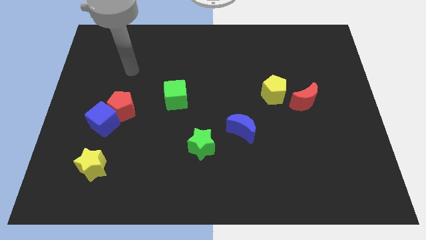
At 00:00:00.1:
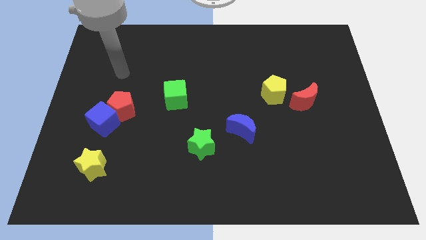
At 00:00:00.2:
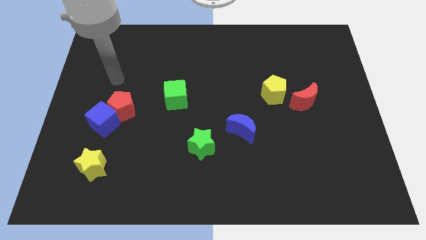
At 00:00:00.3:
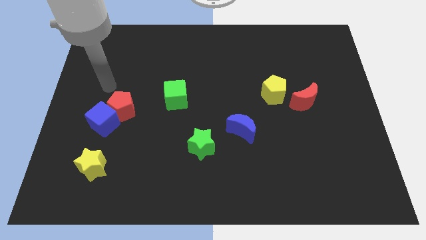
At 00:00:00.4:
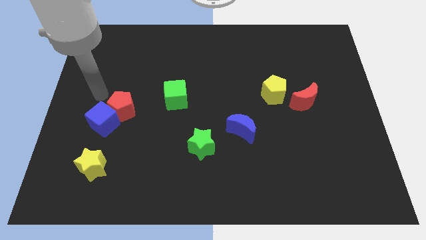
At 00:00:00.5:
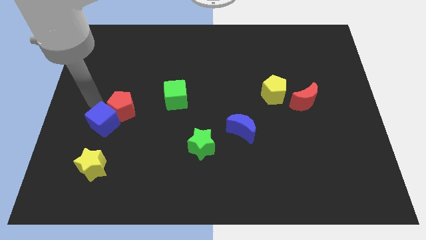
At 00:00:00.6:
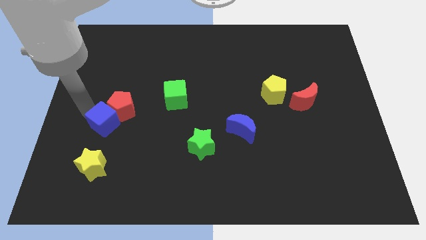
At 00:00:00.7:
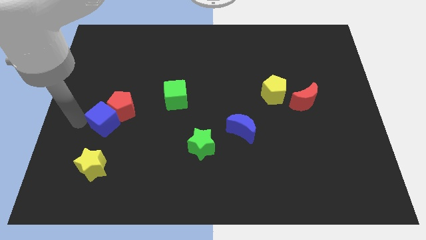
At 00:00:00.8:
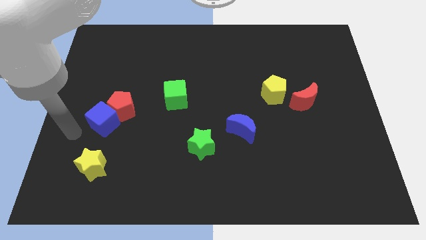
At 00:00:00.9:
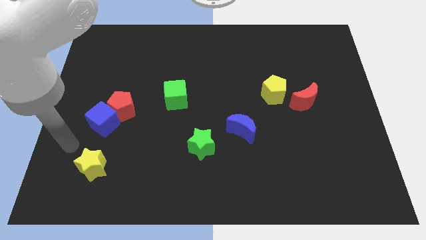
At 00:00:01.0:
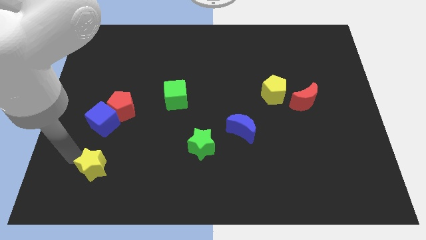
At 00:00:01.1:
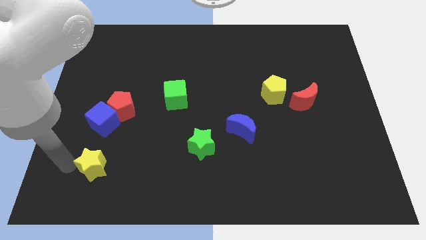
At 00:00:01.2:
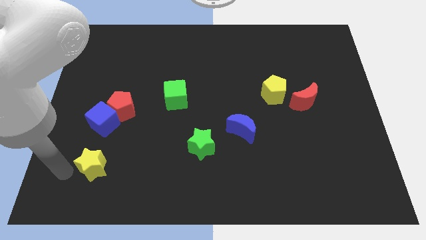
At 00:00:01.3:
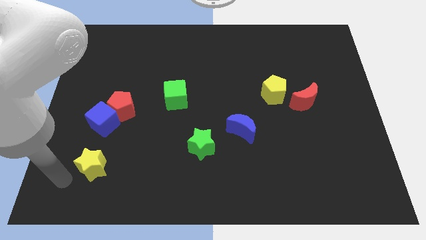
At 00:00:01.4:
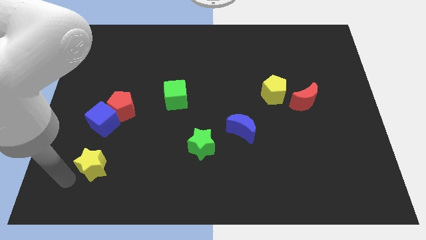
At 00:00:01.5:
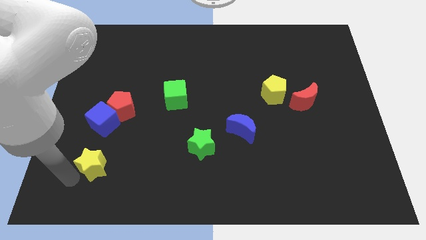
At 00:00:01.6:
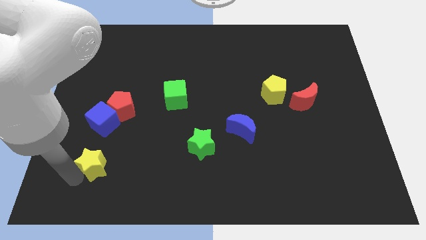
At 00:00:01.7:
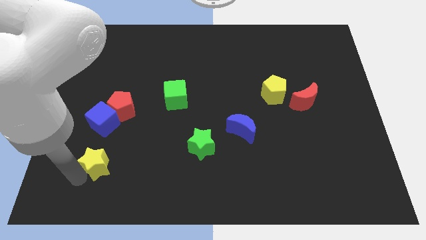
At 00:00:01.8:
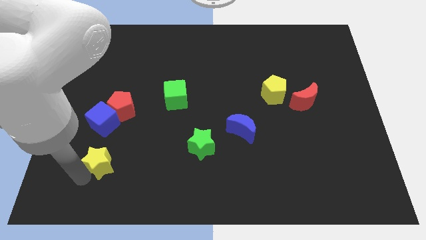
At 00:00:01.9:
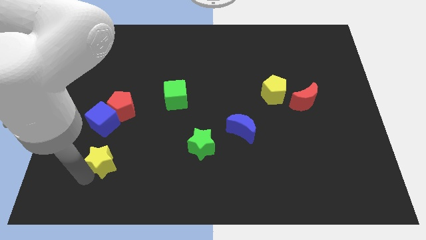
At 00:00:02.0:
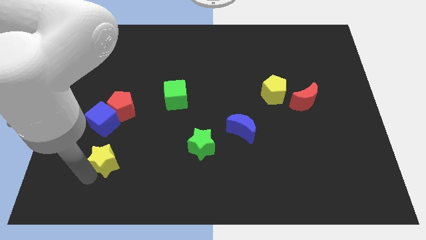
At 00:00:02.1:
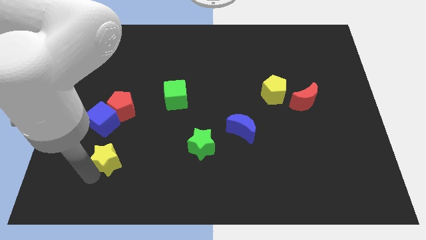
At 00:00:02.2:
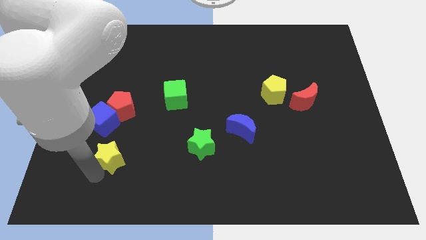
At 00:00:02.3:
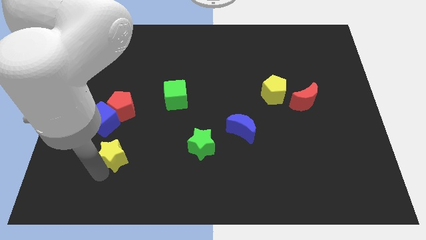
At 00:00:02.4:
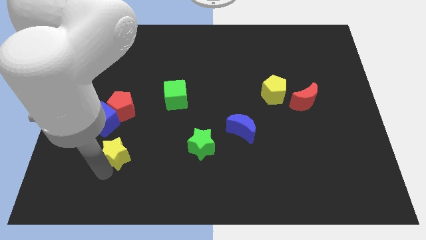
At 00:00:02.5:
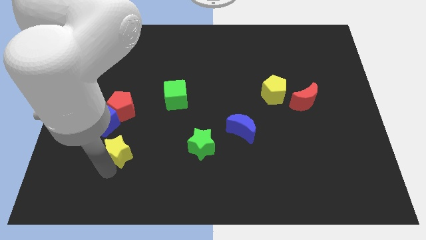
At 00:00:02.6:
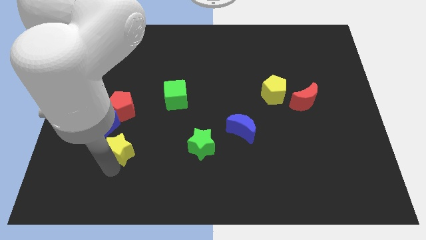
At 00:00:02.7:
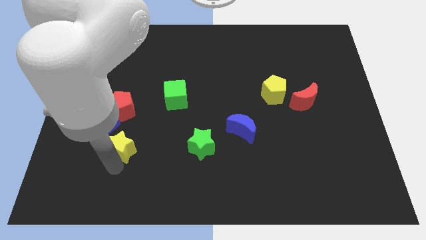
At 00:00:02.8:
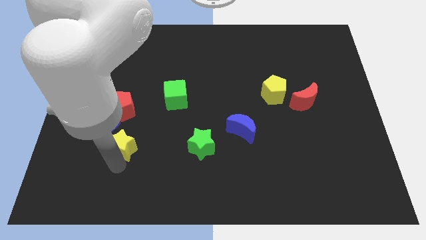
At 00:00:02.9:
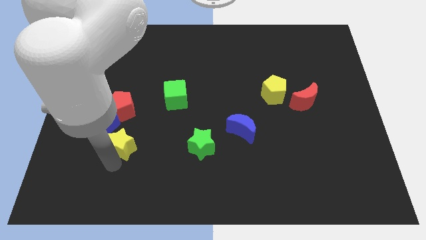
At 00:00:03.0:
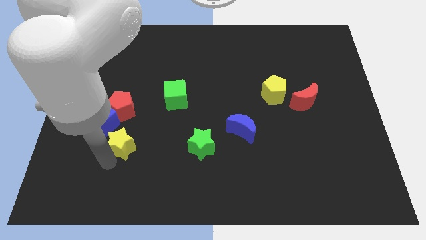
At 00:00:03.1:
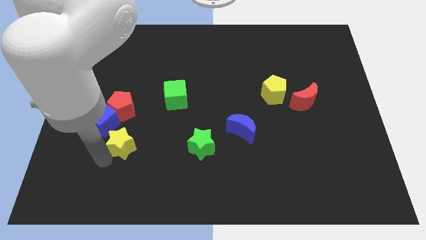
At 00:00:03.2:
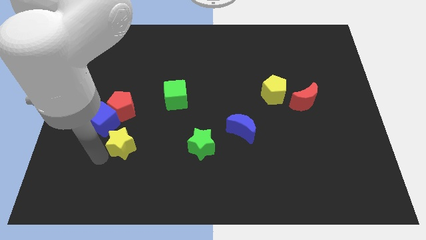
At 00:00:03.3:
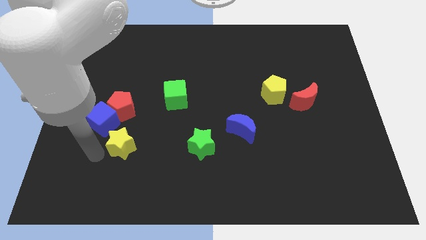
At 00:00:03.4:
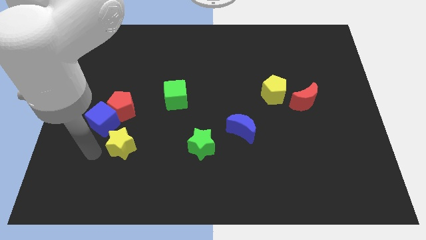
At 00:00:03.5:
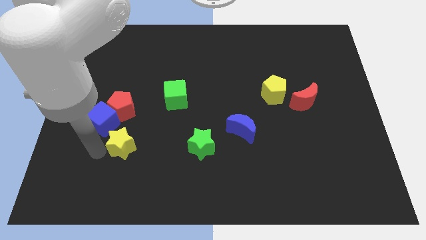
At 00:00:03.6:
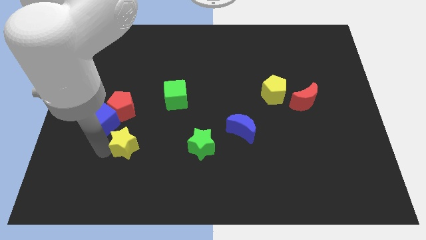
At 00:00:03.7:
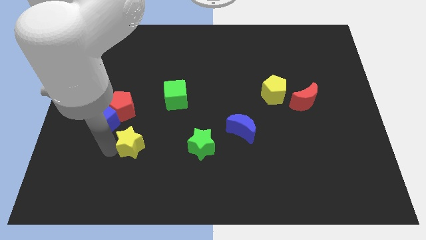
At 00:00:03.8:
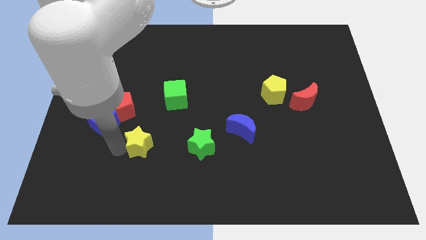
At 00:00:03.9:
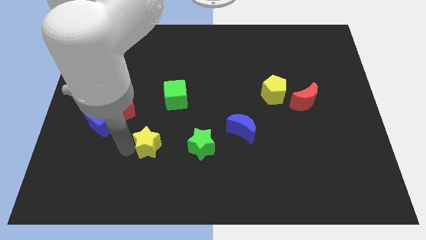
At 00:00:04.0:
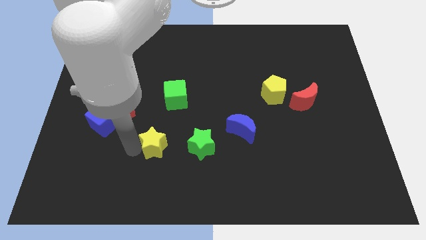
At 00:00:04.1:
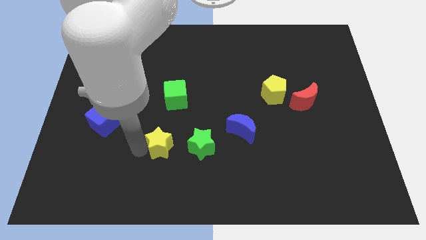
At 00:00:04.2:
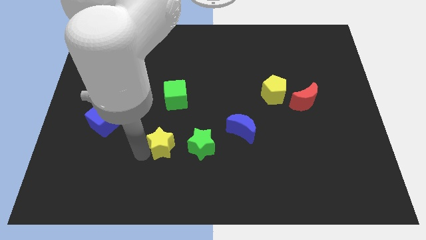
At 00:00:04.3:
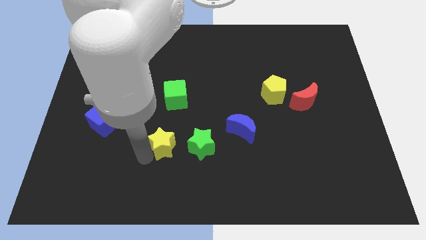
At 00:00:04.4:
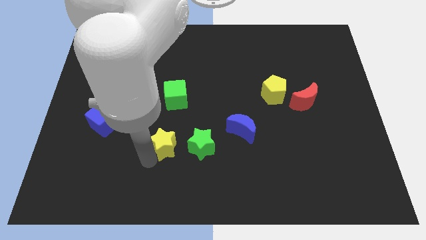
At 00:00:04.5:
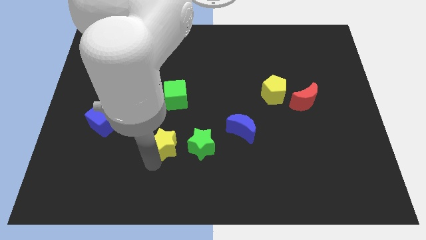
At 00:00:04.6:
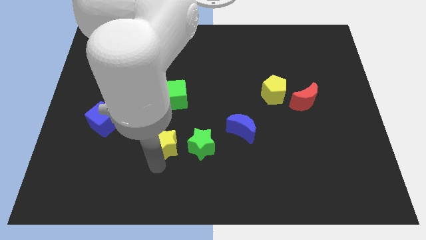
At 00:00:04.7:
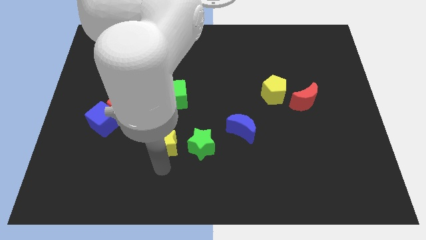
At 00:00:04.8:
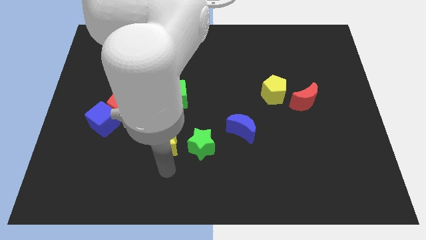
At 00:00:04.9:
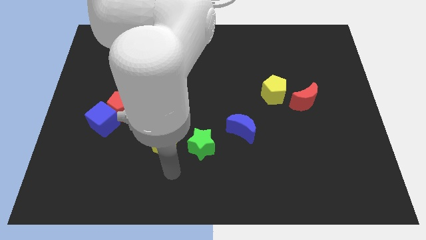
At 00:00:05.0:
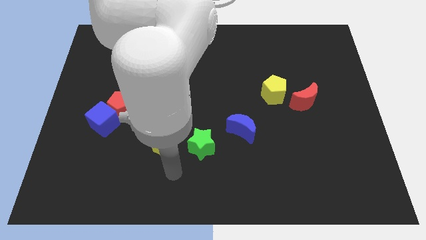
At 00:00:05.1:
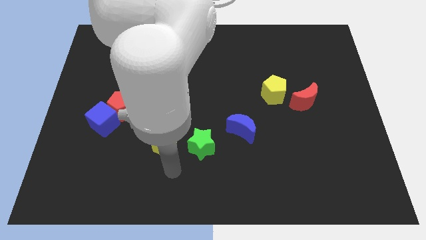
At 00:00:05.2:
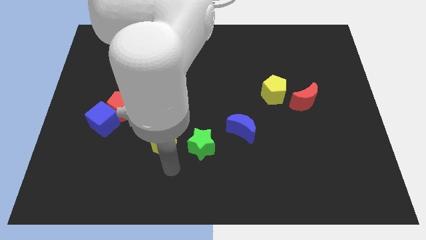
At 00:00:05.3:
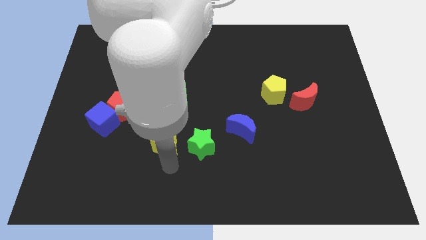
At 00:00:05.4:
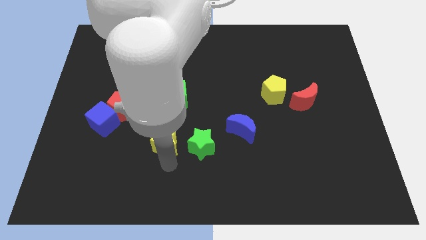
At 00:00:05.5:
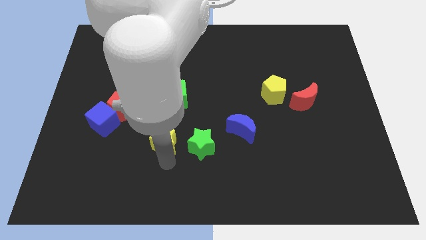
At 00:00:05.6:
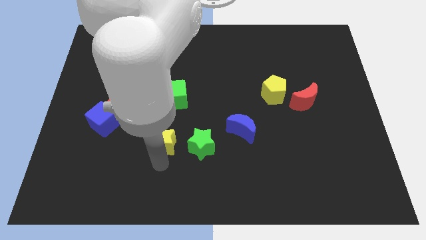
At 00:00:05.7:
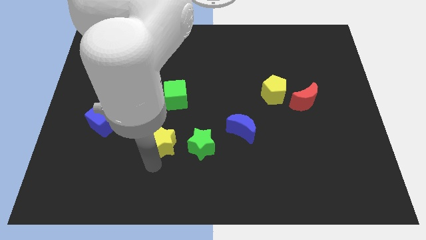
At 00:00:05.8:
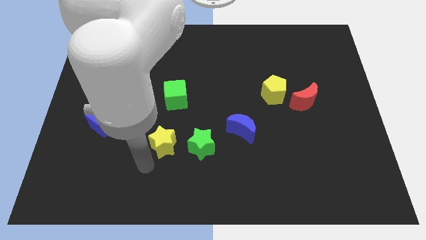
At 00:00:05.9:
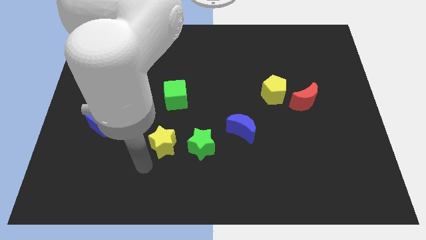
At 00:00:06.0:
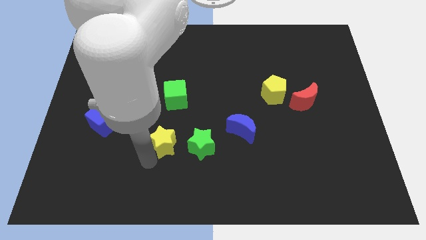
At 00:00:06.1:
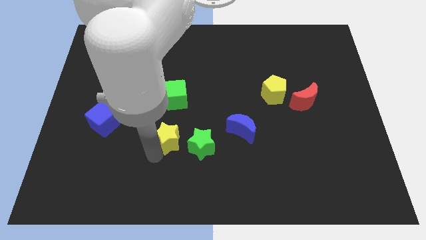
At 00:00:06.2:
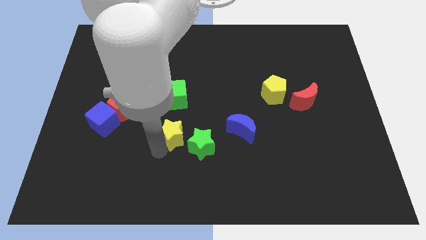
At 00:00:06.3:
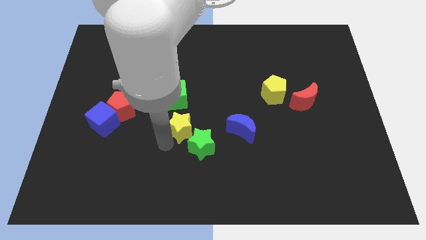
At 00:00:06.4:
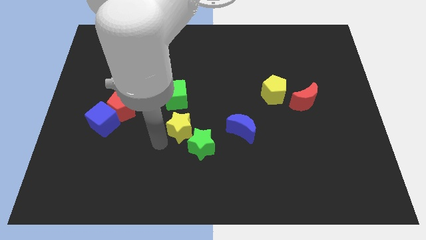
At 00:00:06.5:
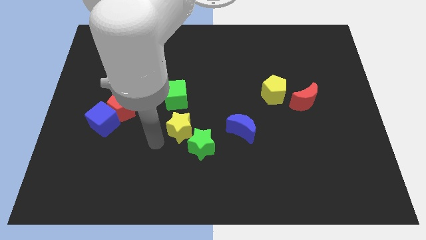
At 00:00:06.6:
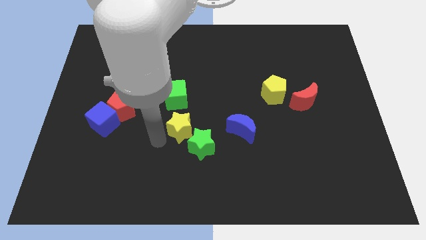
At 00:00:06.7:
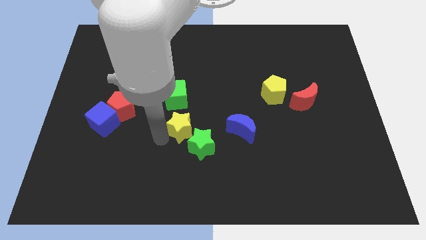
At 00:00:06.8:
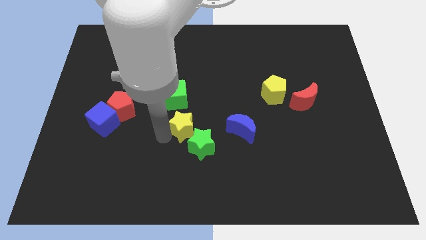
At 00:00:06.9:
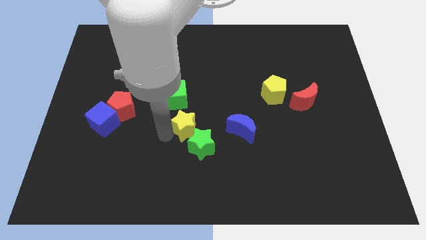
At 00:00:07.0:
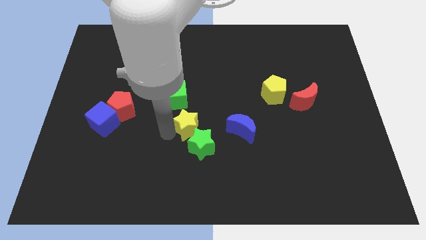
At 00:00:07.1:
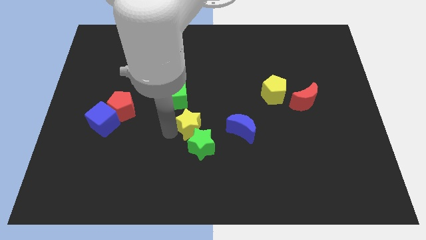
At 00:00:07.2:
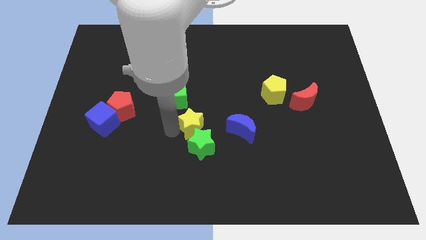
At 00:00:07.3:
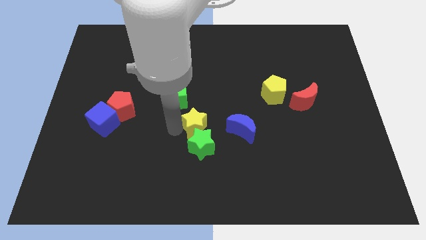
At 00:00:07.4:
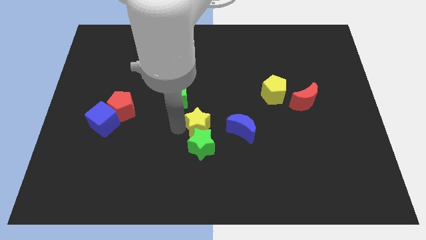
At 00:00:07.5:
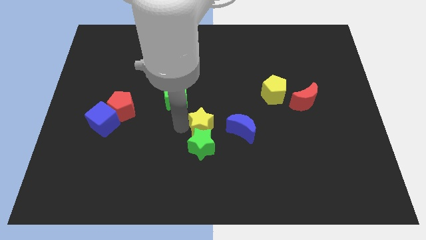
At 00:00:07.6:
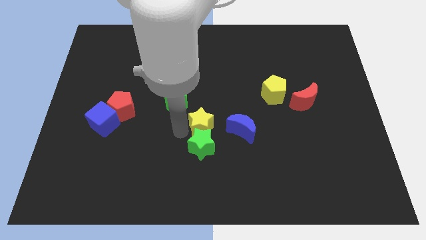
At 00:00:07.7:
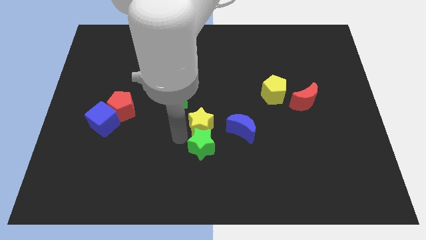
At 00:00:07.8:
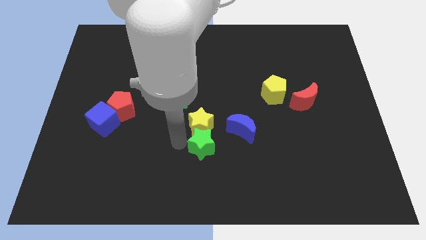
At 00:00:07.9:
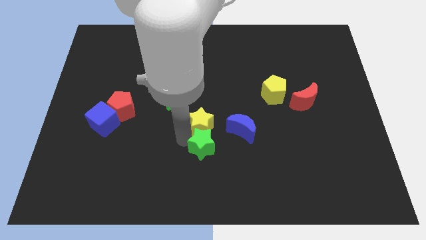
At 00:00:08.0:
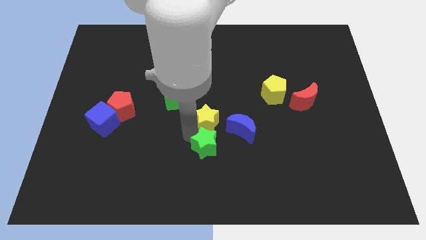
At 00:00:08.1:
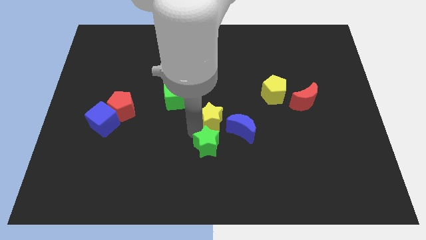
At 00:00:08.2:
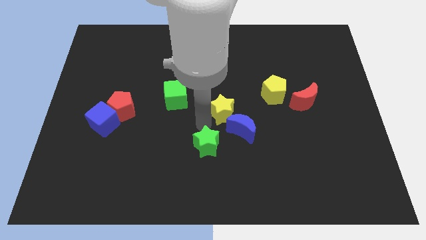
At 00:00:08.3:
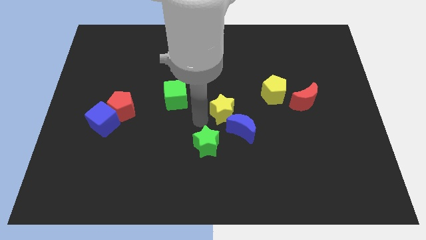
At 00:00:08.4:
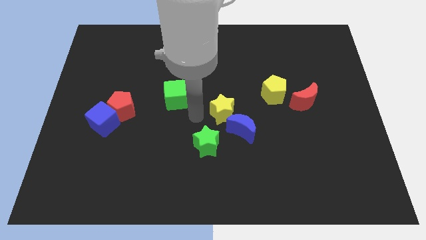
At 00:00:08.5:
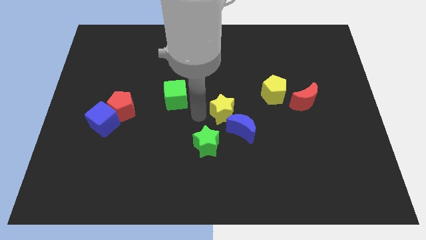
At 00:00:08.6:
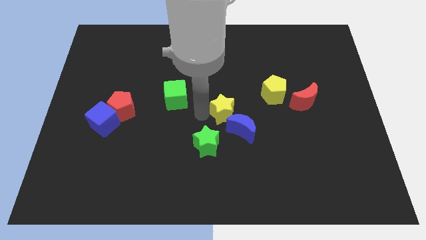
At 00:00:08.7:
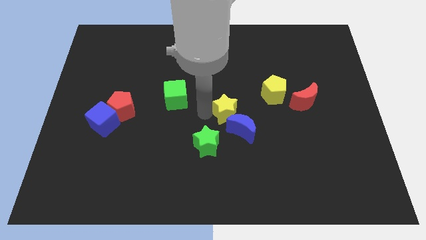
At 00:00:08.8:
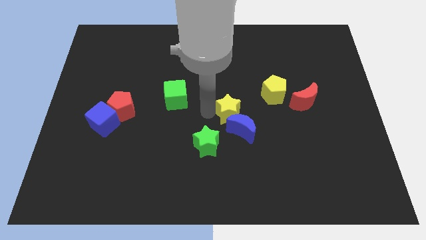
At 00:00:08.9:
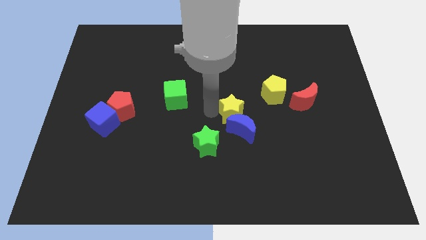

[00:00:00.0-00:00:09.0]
move the yellow star diagonally down and to the left of the yellow pentagon
